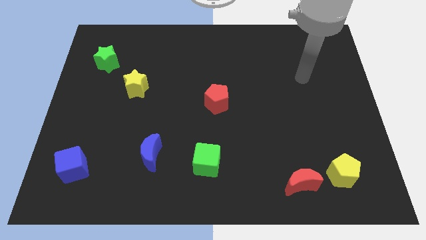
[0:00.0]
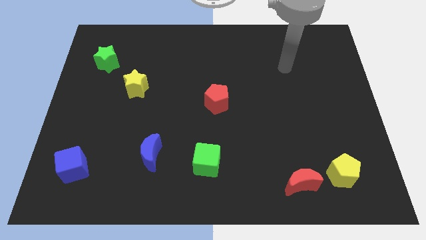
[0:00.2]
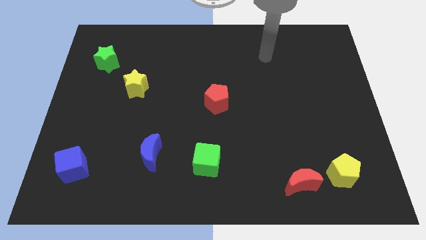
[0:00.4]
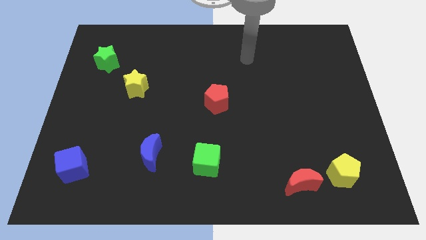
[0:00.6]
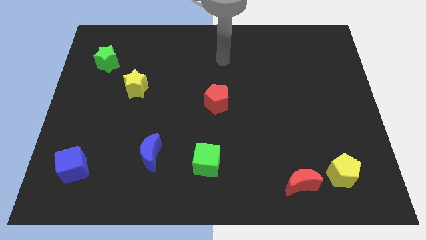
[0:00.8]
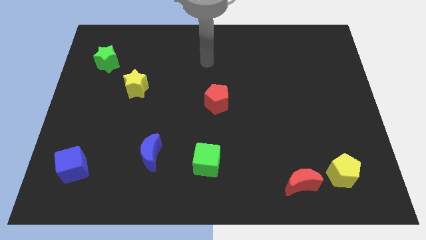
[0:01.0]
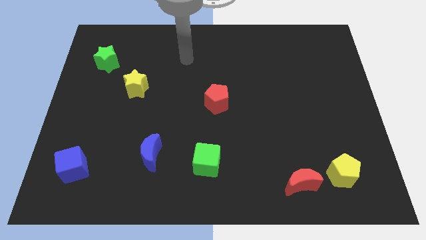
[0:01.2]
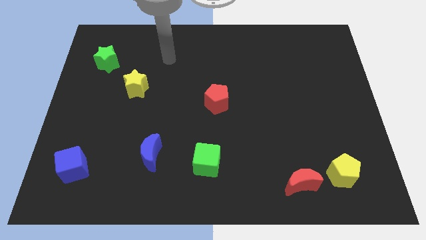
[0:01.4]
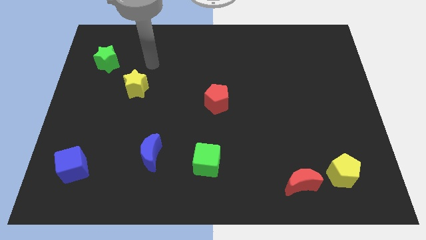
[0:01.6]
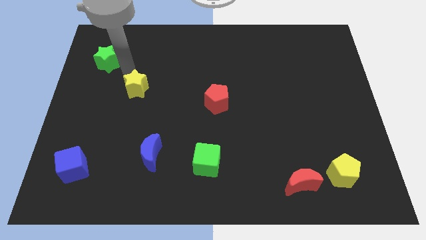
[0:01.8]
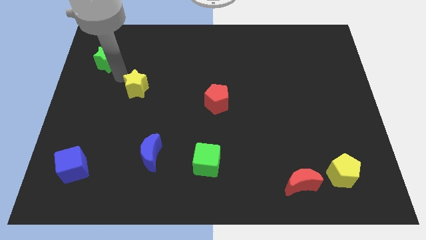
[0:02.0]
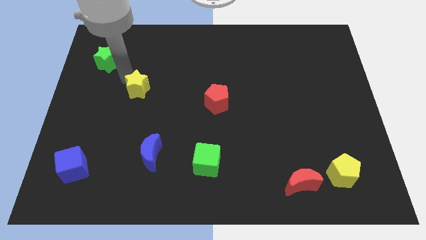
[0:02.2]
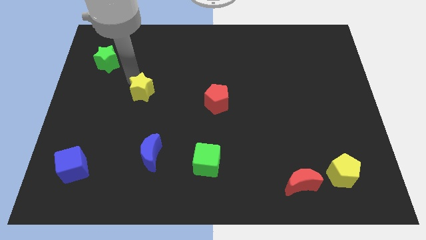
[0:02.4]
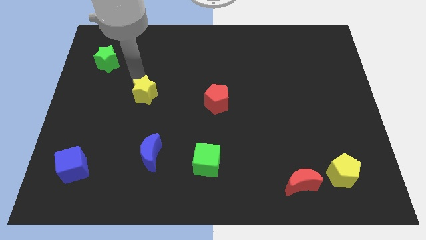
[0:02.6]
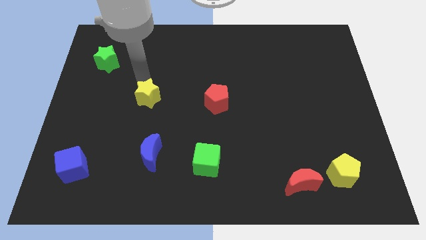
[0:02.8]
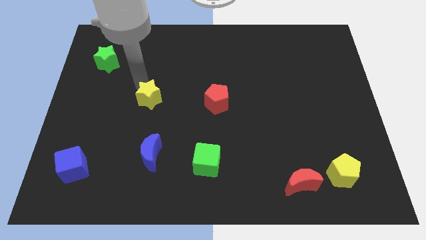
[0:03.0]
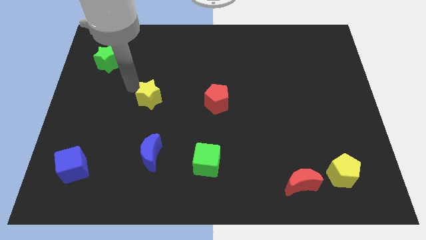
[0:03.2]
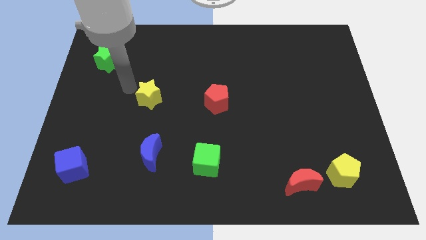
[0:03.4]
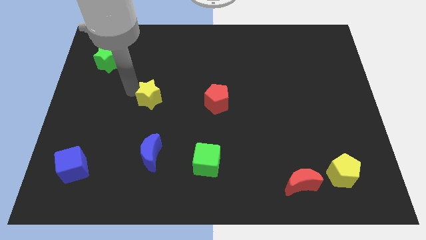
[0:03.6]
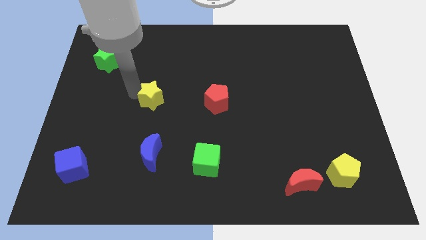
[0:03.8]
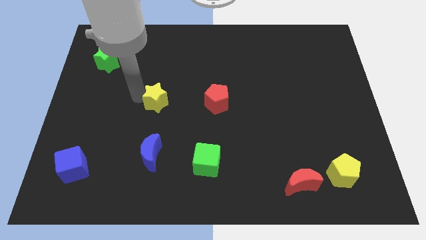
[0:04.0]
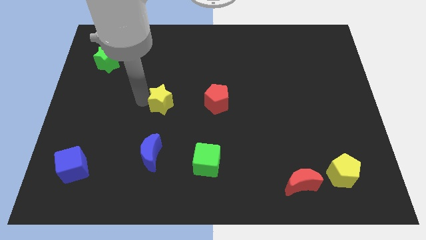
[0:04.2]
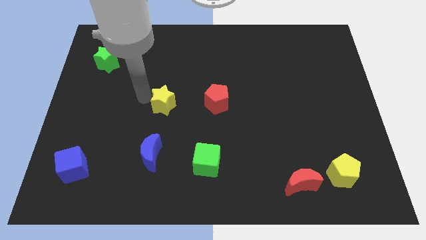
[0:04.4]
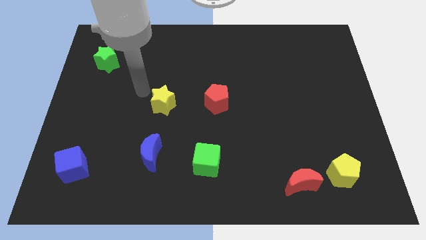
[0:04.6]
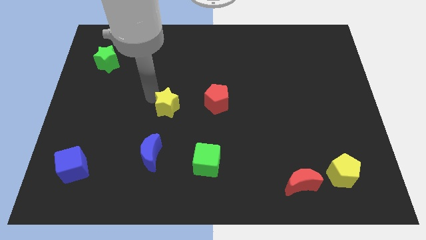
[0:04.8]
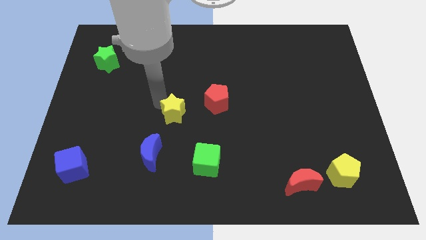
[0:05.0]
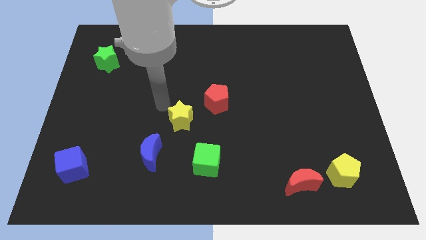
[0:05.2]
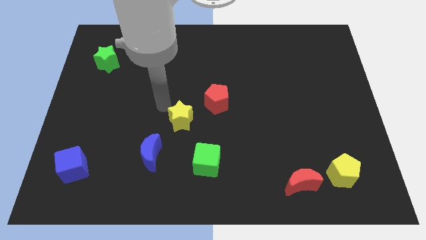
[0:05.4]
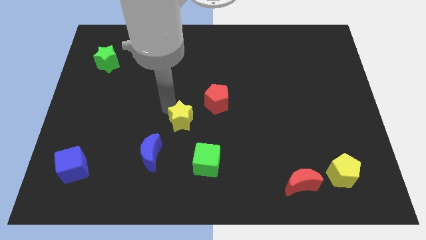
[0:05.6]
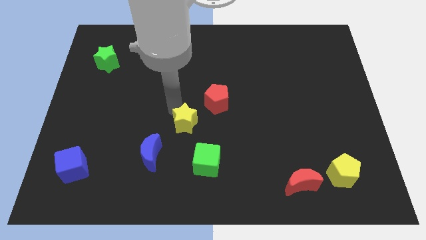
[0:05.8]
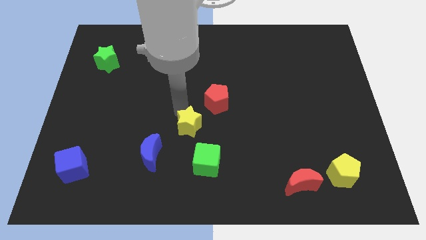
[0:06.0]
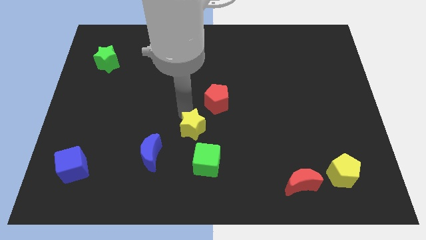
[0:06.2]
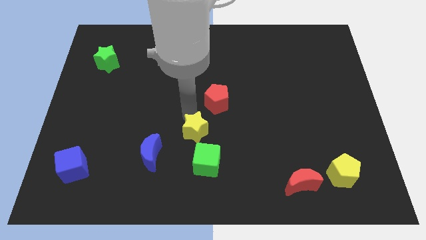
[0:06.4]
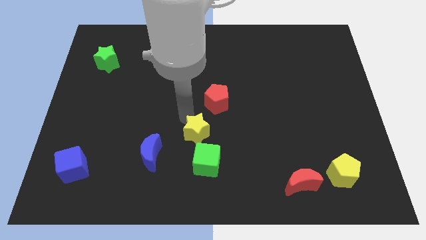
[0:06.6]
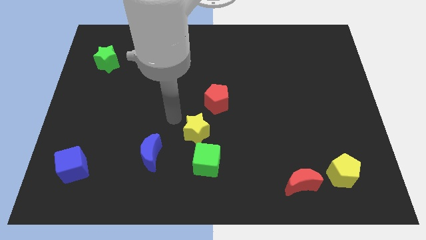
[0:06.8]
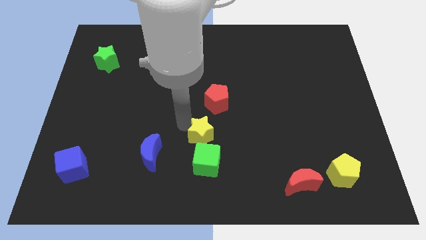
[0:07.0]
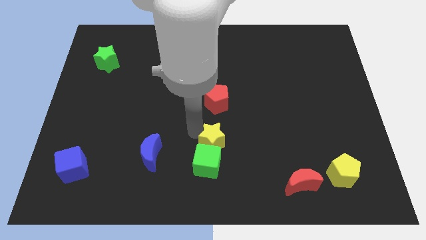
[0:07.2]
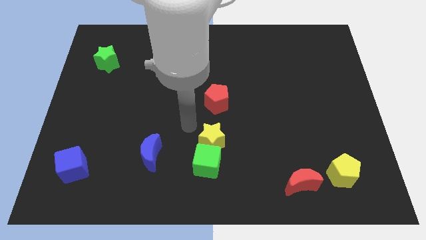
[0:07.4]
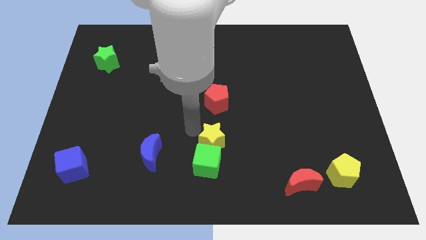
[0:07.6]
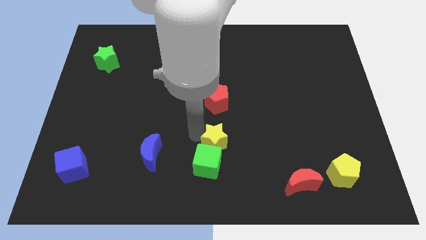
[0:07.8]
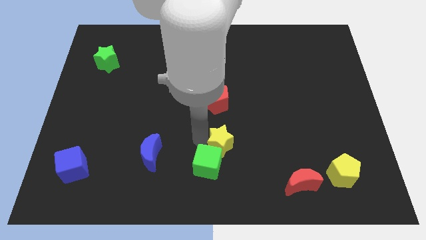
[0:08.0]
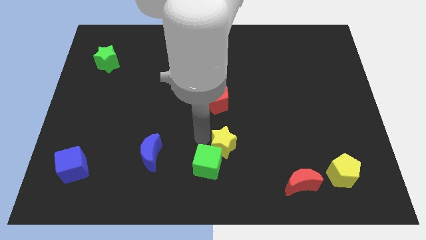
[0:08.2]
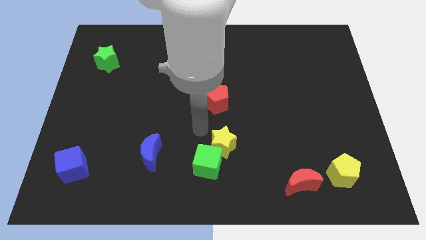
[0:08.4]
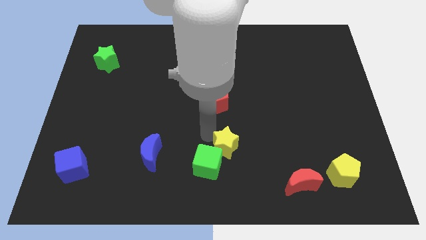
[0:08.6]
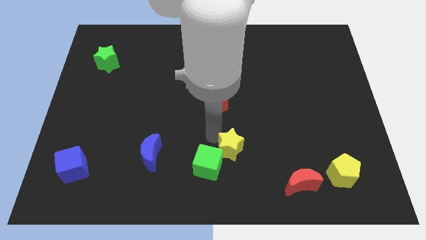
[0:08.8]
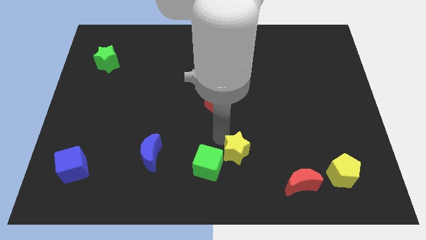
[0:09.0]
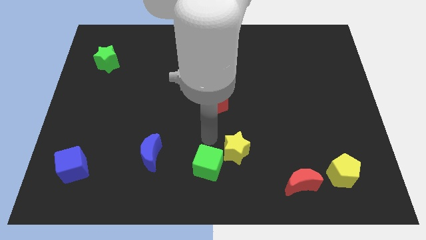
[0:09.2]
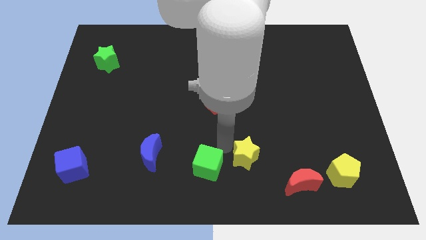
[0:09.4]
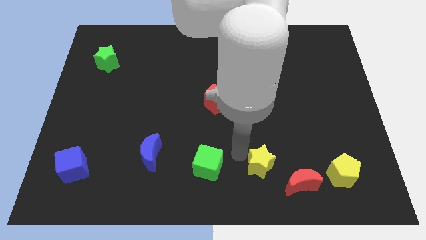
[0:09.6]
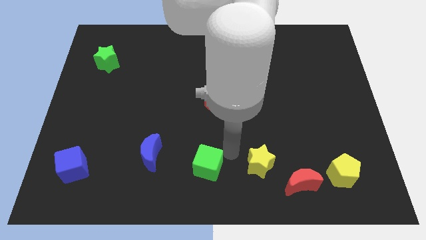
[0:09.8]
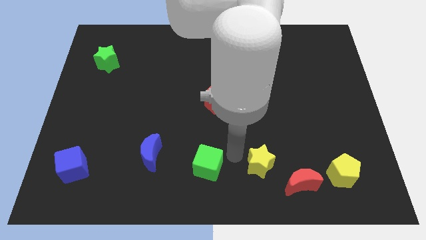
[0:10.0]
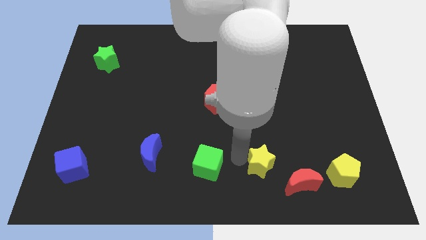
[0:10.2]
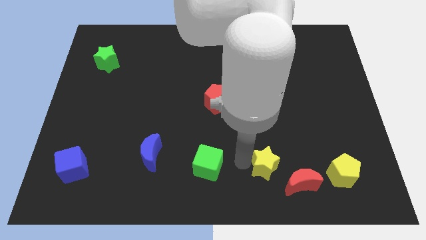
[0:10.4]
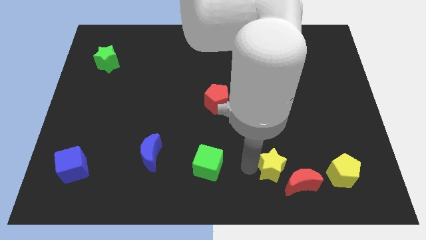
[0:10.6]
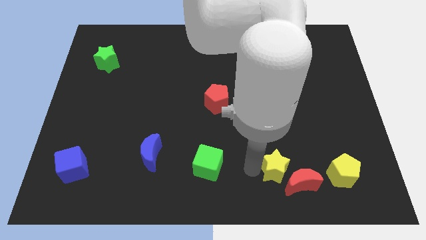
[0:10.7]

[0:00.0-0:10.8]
slide the yellow star next to the red moon

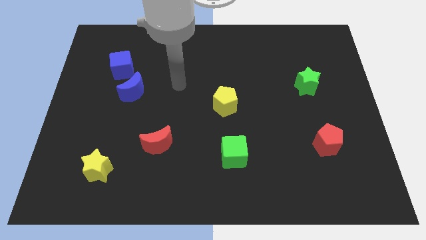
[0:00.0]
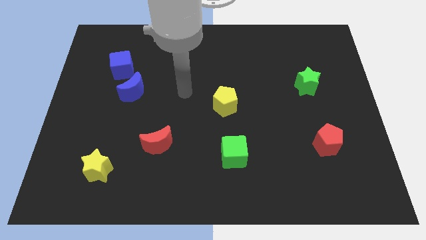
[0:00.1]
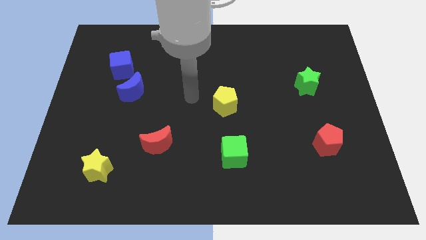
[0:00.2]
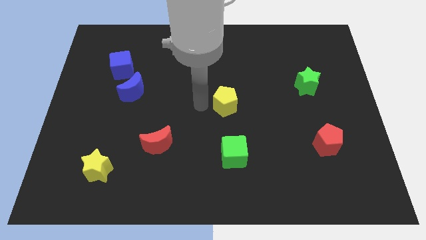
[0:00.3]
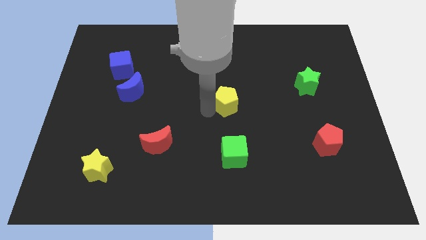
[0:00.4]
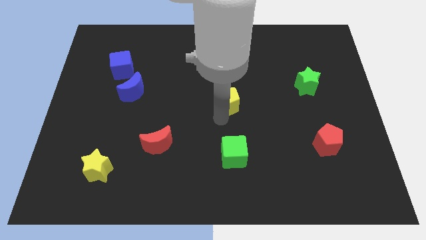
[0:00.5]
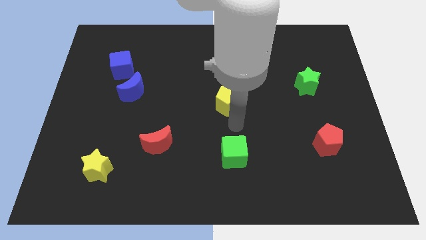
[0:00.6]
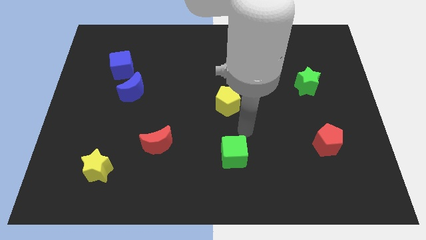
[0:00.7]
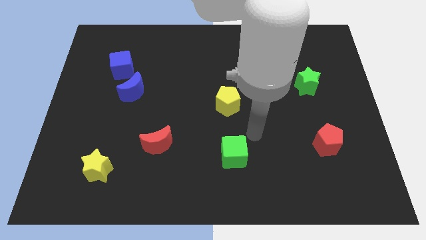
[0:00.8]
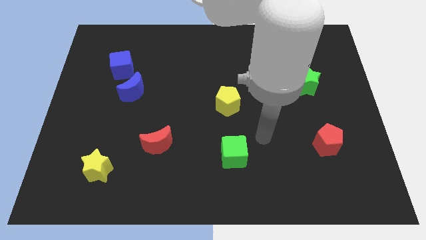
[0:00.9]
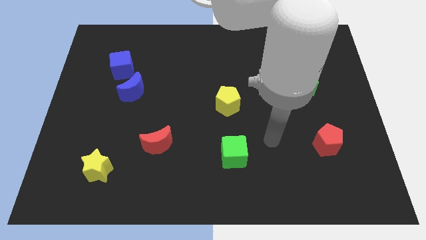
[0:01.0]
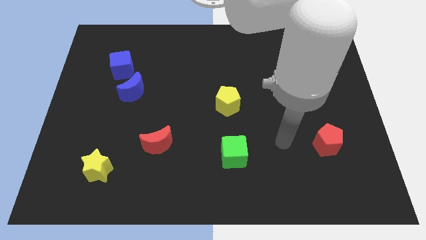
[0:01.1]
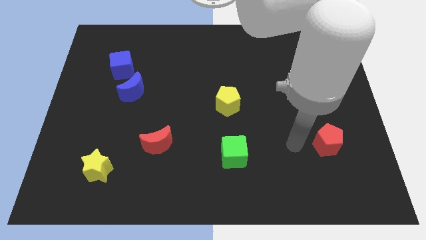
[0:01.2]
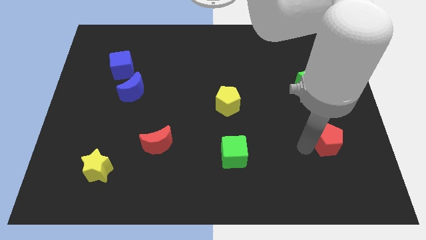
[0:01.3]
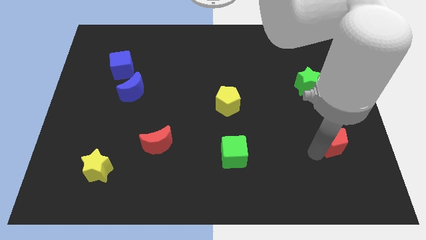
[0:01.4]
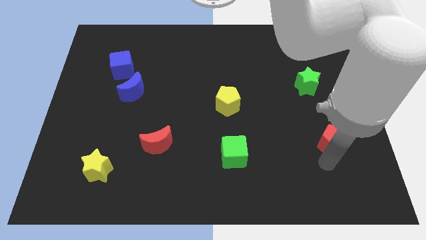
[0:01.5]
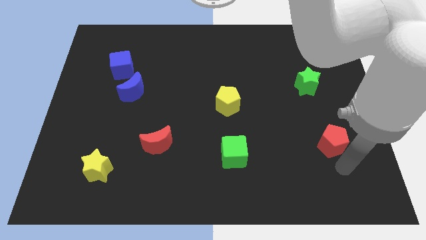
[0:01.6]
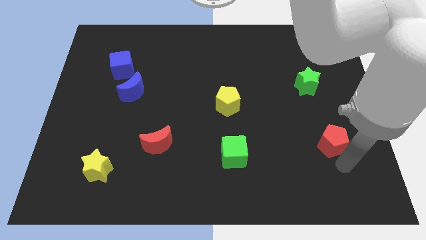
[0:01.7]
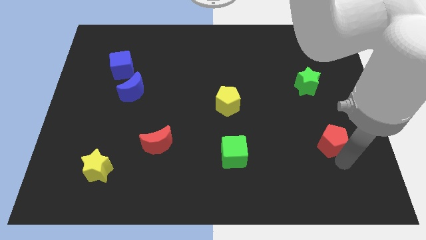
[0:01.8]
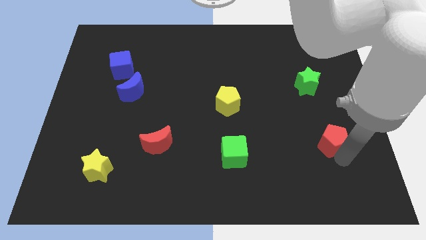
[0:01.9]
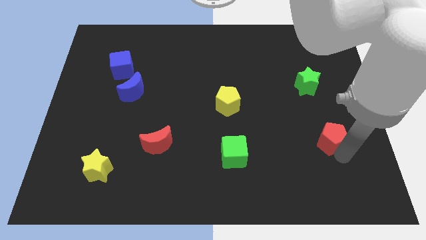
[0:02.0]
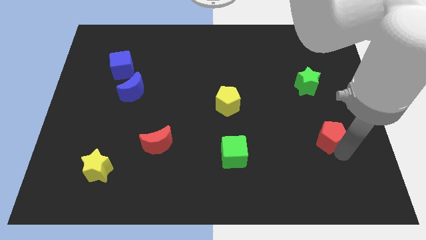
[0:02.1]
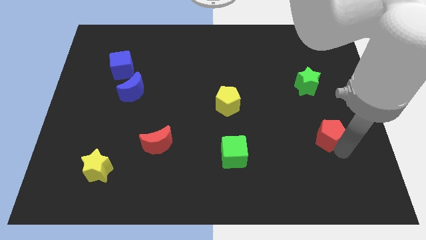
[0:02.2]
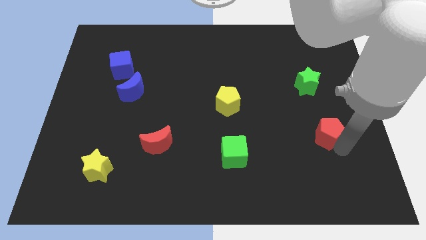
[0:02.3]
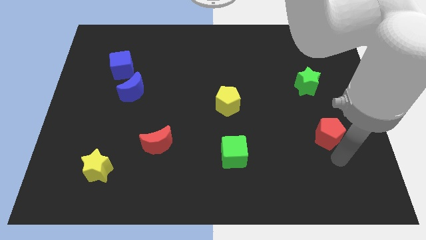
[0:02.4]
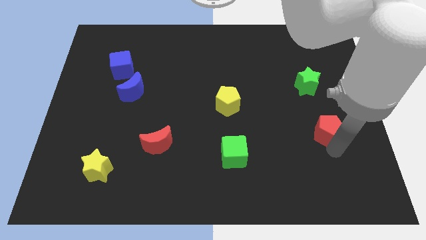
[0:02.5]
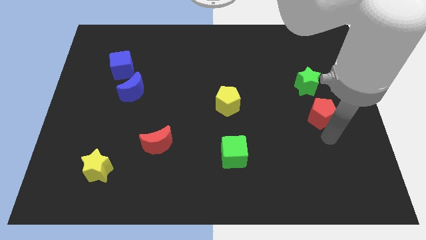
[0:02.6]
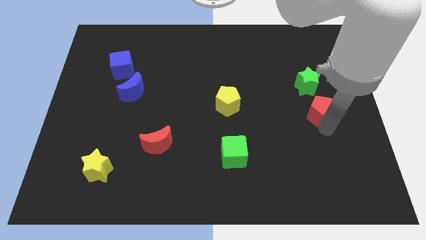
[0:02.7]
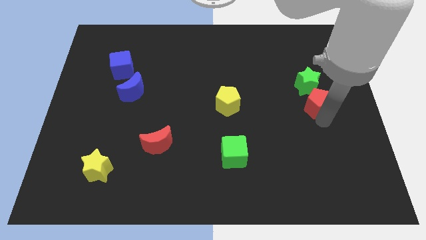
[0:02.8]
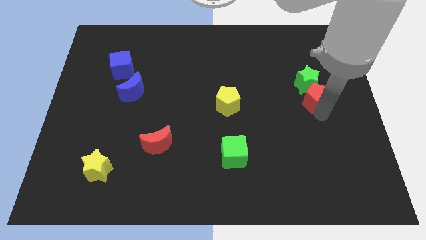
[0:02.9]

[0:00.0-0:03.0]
push the red pentagon close to the green star
